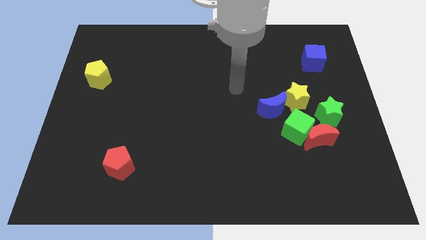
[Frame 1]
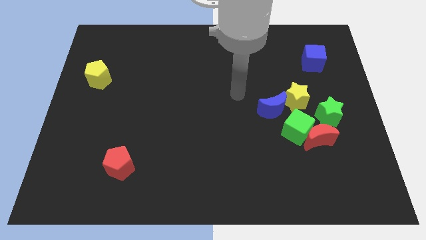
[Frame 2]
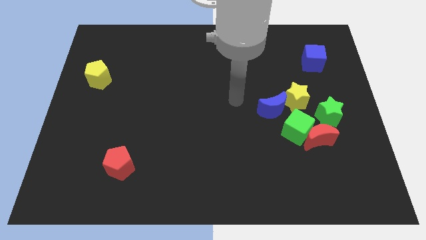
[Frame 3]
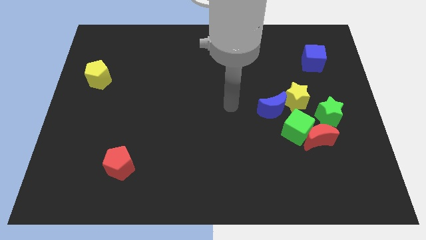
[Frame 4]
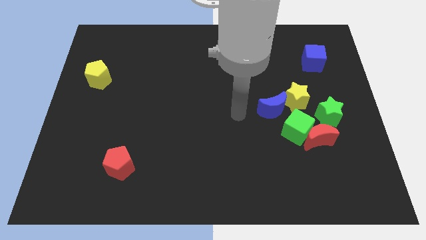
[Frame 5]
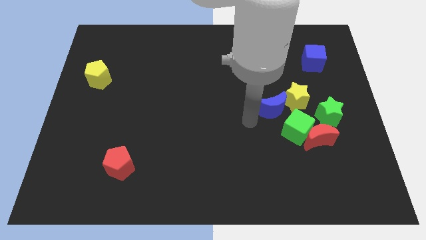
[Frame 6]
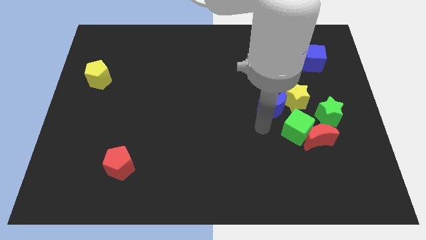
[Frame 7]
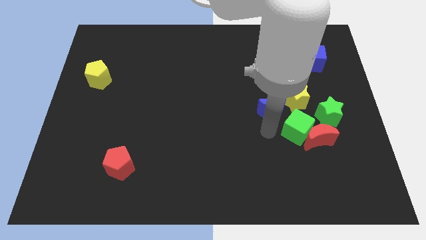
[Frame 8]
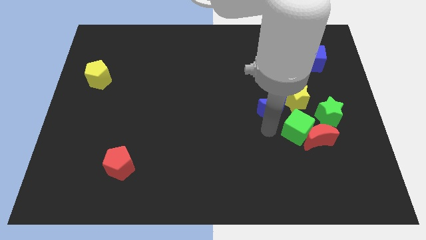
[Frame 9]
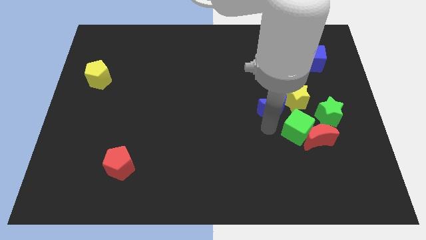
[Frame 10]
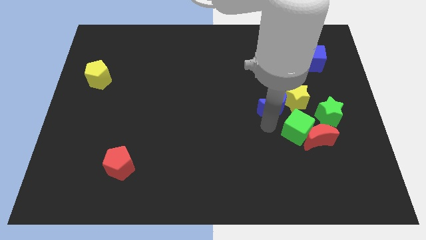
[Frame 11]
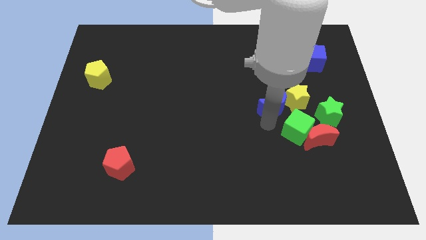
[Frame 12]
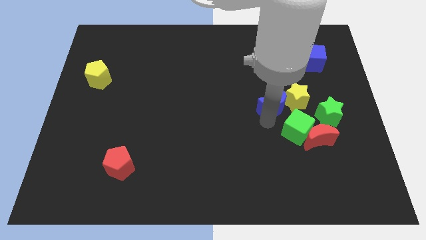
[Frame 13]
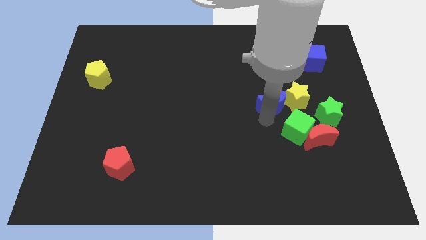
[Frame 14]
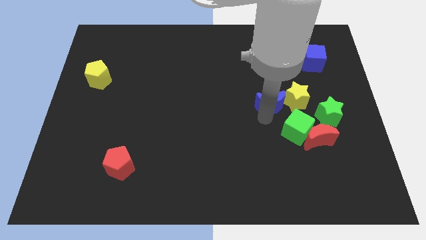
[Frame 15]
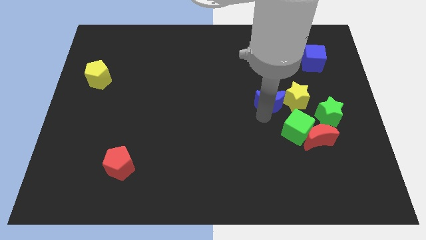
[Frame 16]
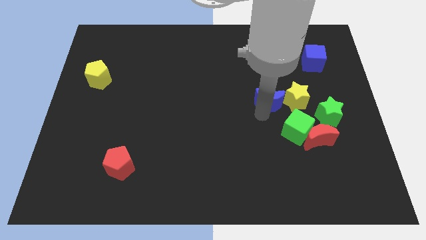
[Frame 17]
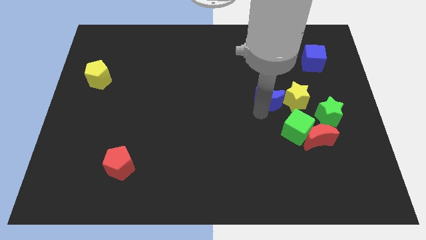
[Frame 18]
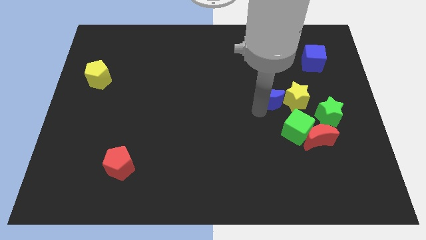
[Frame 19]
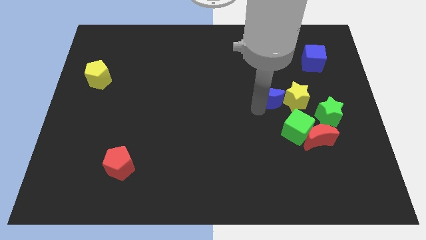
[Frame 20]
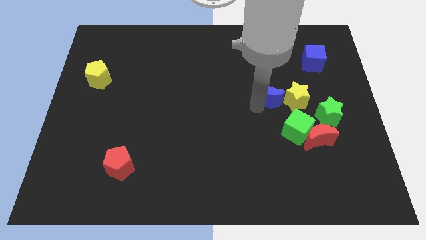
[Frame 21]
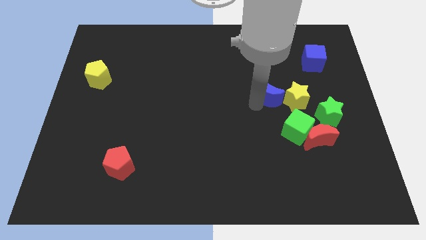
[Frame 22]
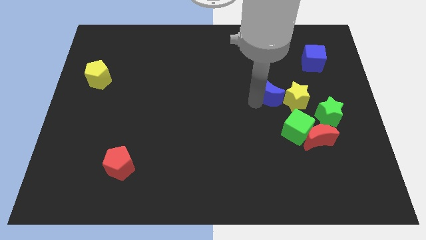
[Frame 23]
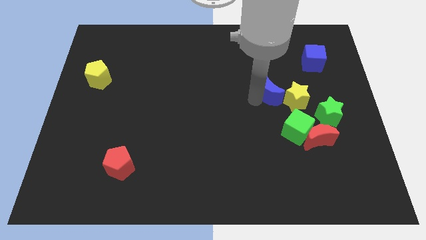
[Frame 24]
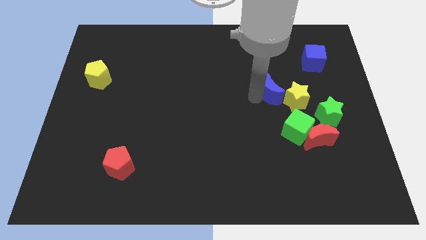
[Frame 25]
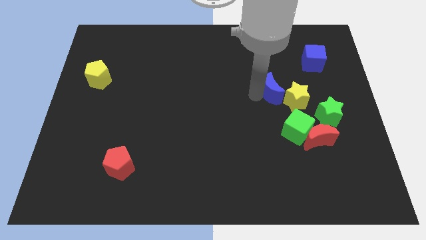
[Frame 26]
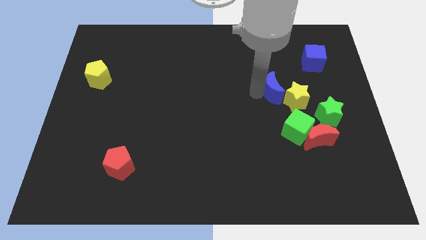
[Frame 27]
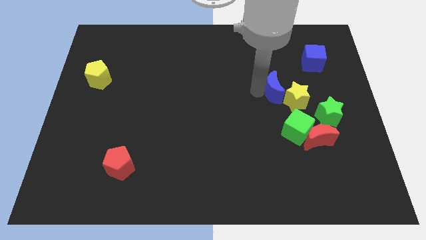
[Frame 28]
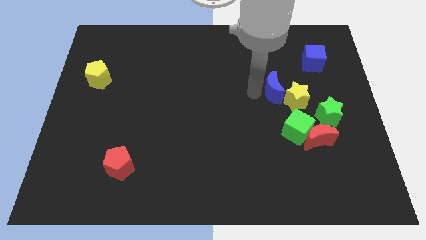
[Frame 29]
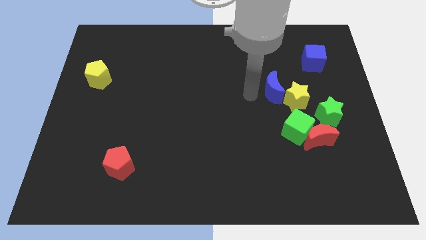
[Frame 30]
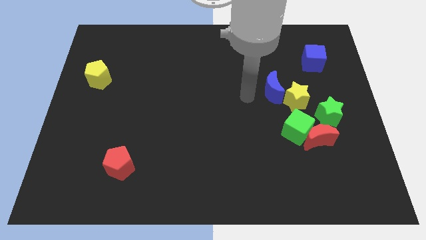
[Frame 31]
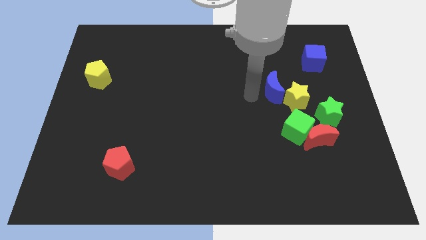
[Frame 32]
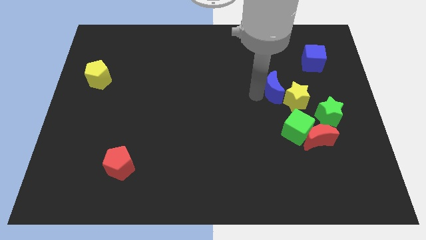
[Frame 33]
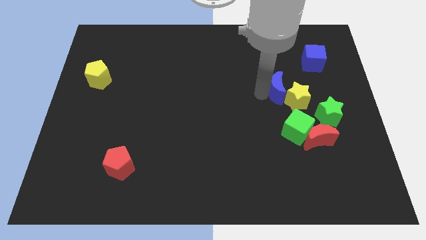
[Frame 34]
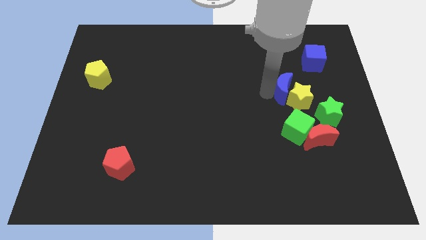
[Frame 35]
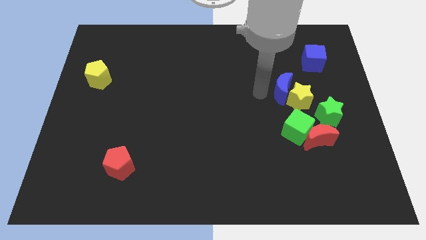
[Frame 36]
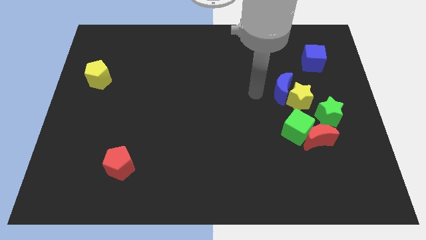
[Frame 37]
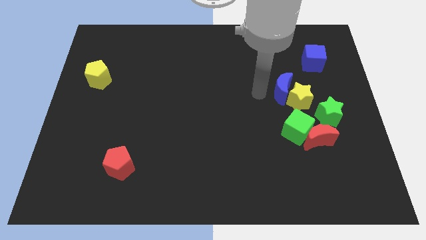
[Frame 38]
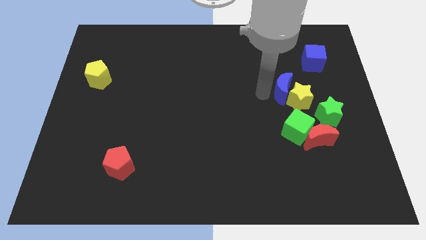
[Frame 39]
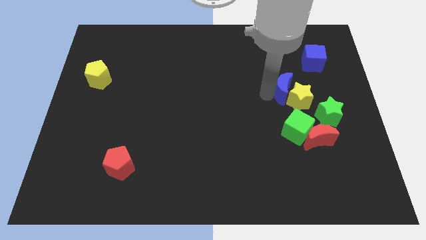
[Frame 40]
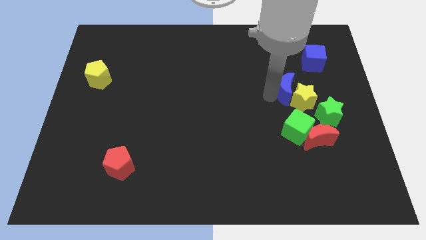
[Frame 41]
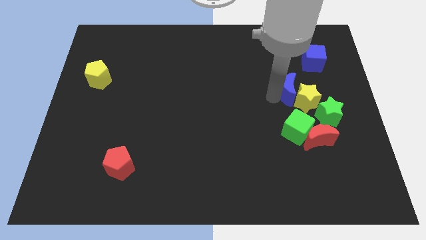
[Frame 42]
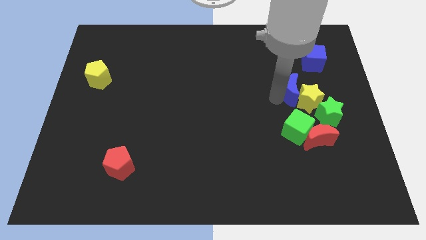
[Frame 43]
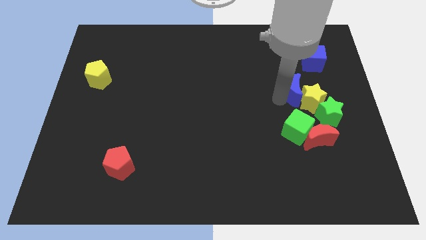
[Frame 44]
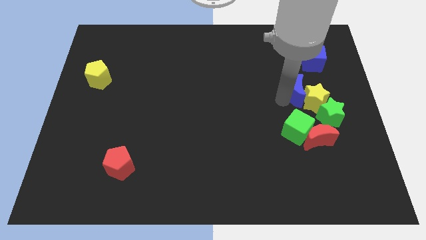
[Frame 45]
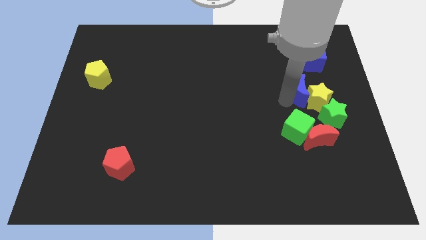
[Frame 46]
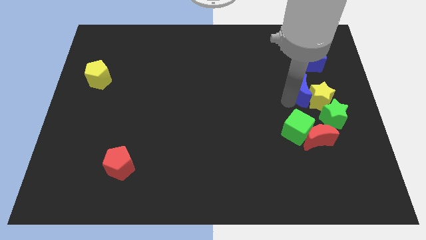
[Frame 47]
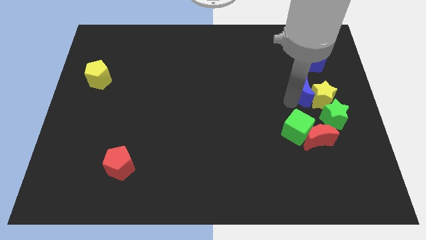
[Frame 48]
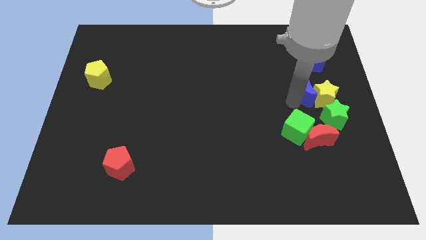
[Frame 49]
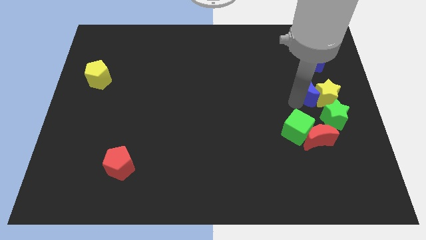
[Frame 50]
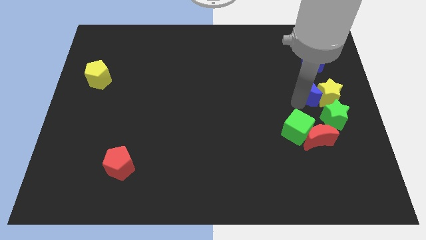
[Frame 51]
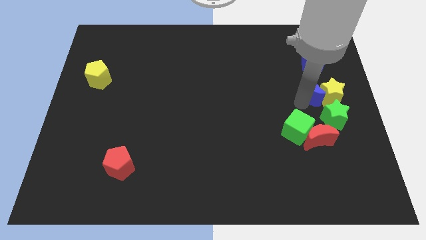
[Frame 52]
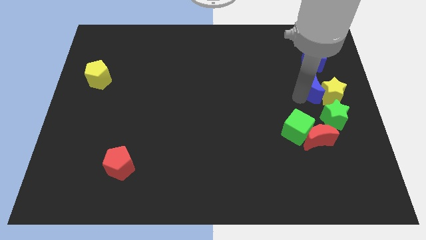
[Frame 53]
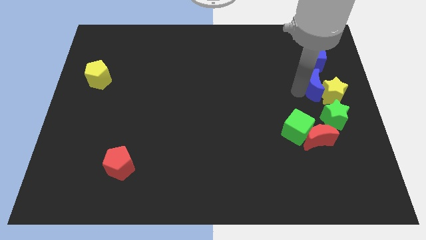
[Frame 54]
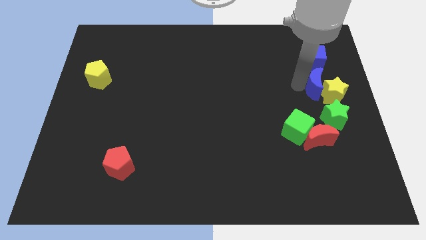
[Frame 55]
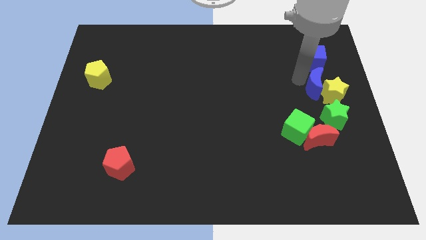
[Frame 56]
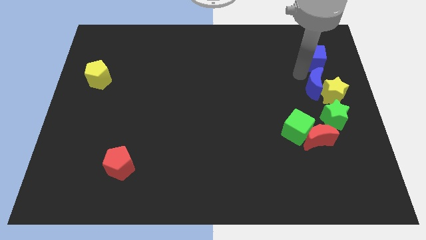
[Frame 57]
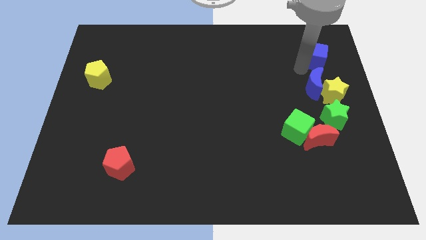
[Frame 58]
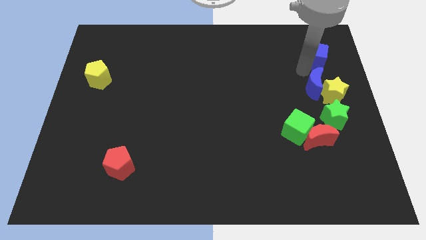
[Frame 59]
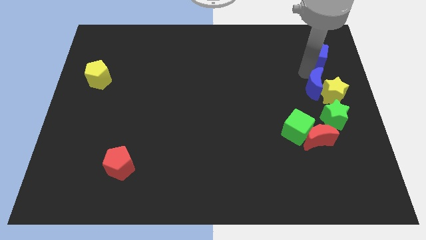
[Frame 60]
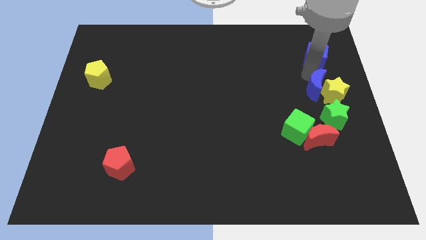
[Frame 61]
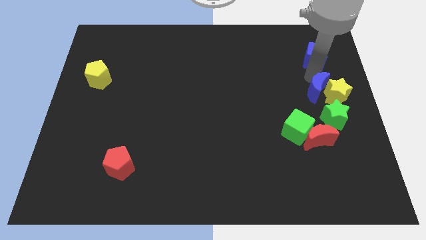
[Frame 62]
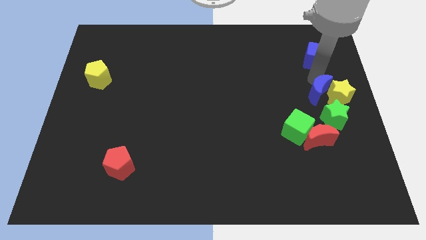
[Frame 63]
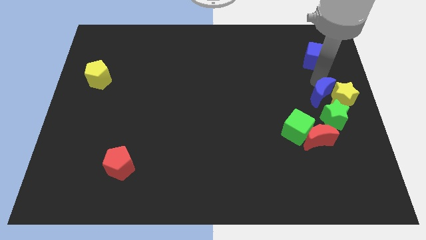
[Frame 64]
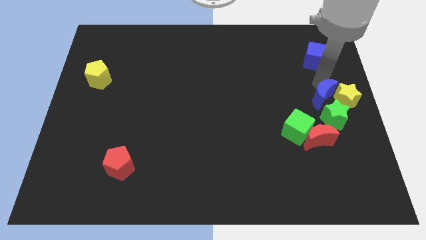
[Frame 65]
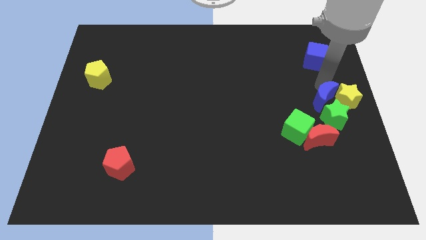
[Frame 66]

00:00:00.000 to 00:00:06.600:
move the blue moon next to the green star

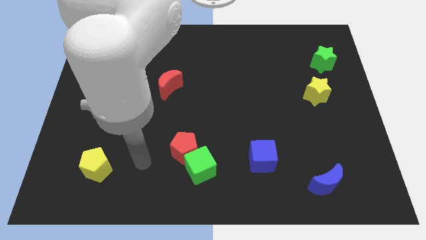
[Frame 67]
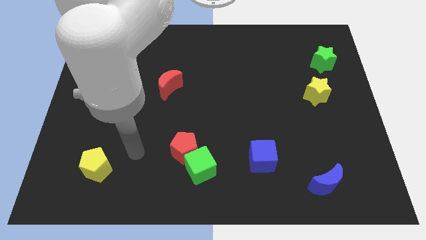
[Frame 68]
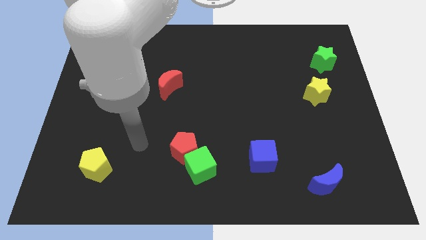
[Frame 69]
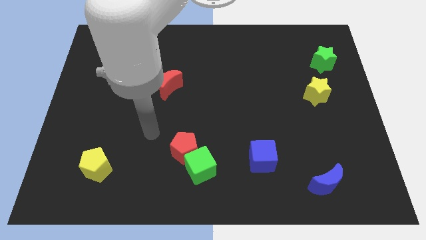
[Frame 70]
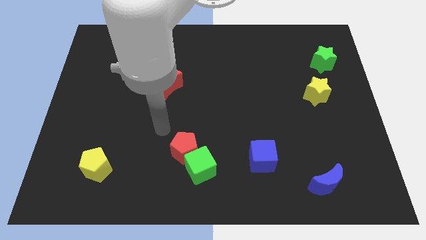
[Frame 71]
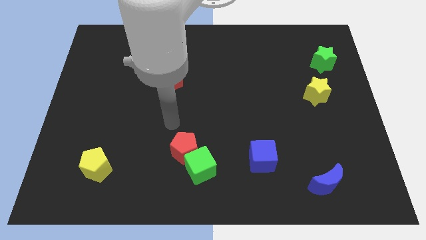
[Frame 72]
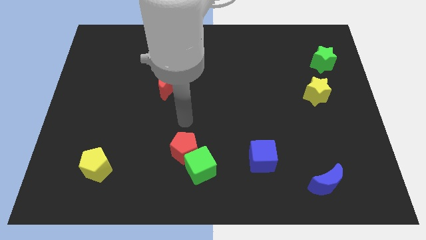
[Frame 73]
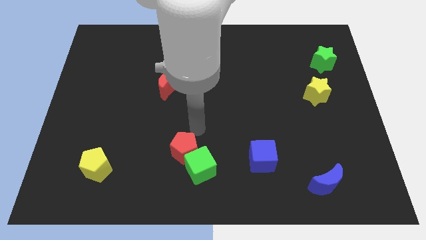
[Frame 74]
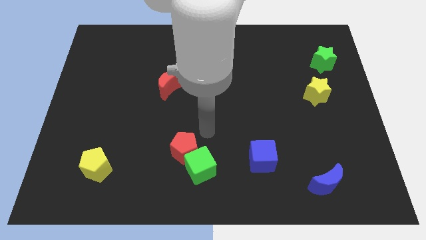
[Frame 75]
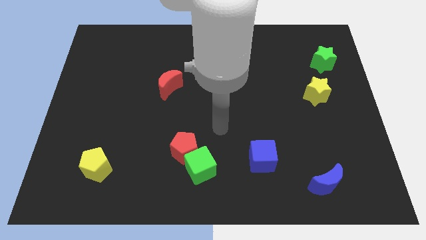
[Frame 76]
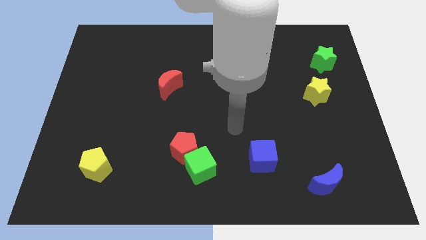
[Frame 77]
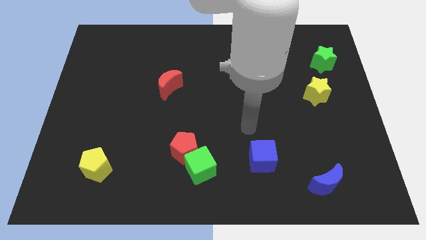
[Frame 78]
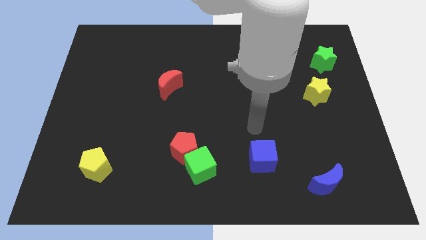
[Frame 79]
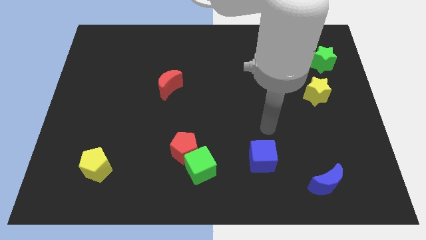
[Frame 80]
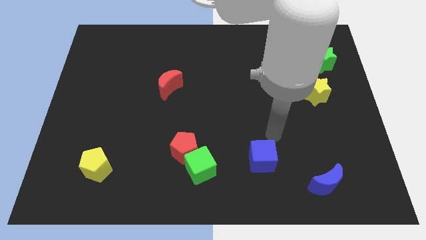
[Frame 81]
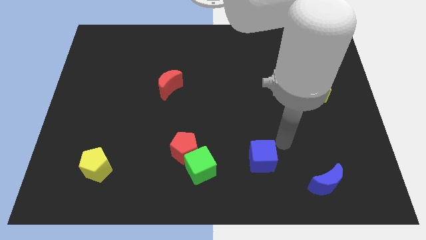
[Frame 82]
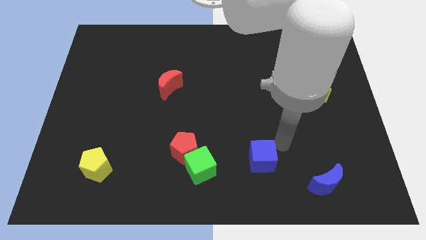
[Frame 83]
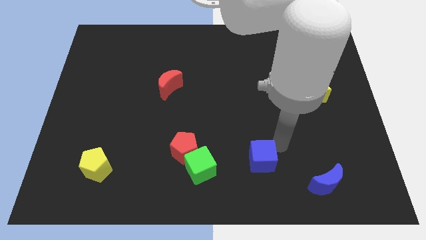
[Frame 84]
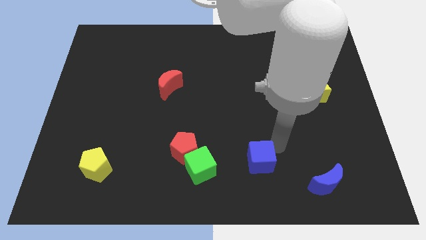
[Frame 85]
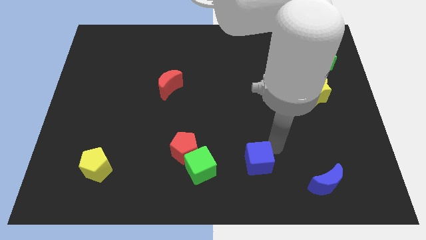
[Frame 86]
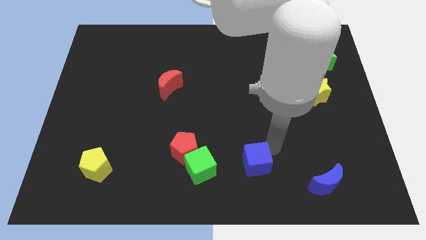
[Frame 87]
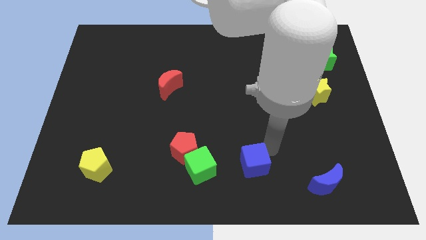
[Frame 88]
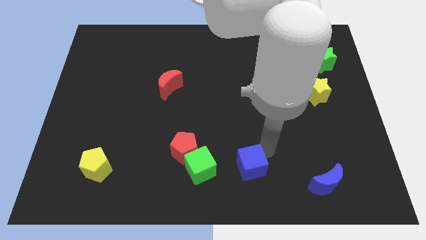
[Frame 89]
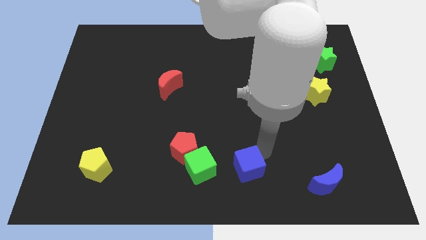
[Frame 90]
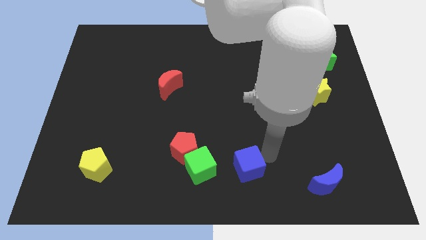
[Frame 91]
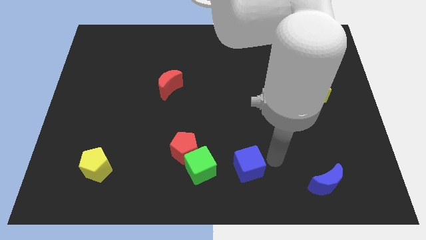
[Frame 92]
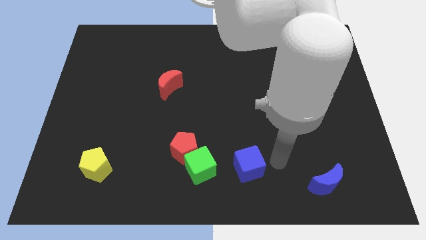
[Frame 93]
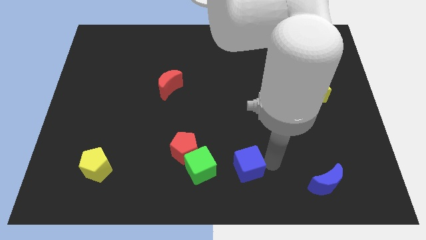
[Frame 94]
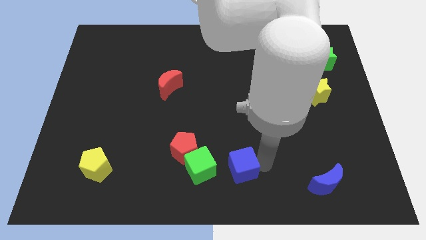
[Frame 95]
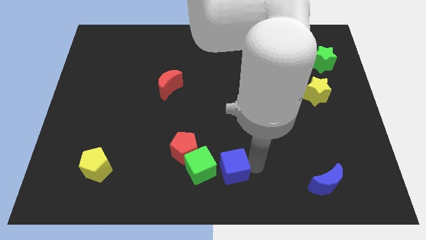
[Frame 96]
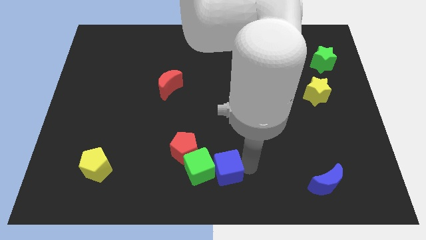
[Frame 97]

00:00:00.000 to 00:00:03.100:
slide the blue cube towards the green cube
